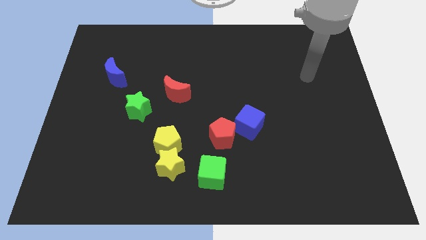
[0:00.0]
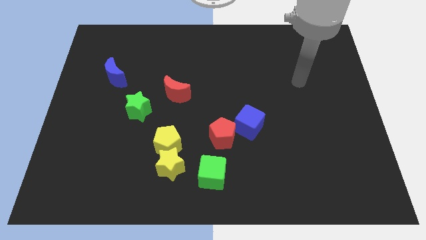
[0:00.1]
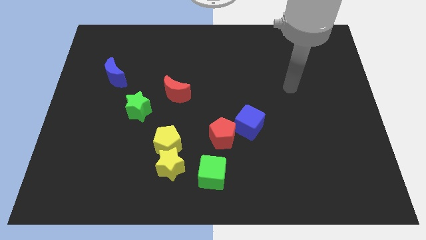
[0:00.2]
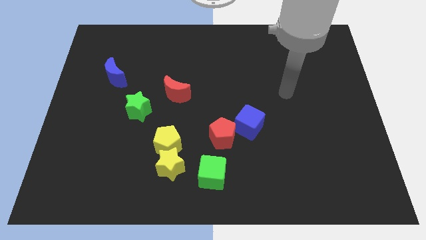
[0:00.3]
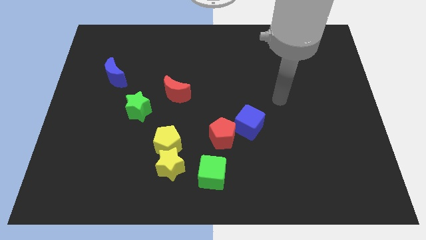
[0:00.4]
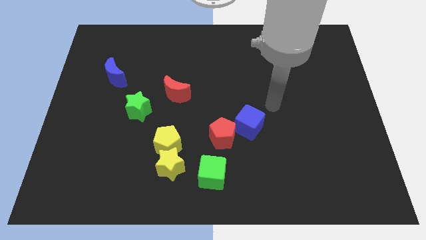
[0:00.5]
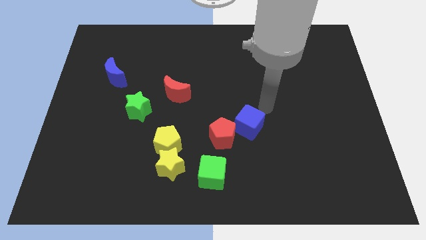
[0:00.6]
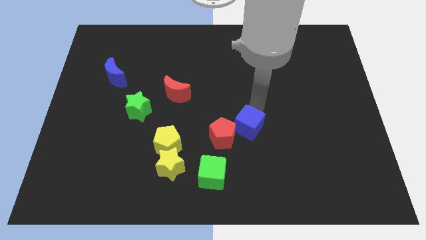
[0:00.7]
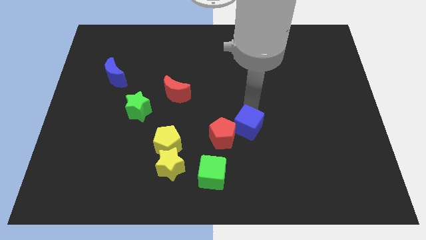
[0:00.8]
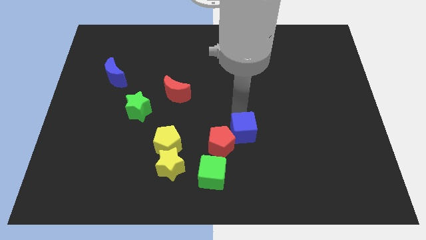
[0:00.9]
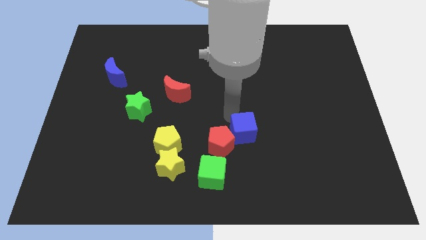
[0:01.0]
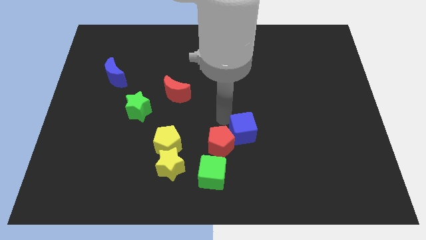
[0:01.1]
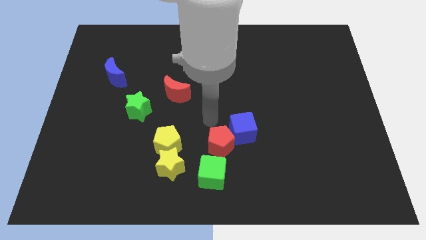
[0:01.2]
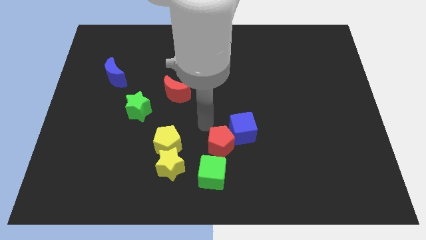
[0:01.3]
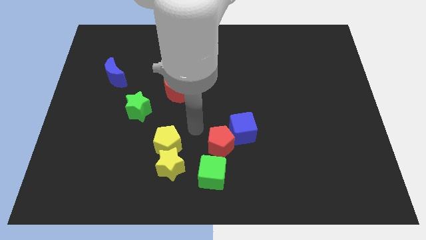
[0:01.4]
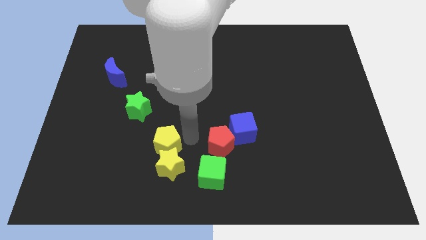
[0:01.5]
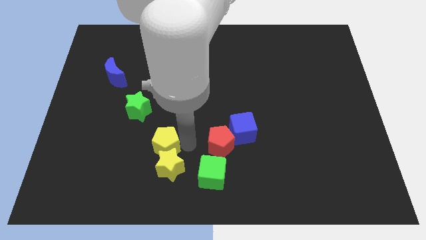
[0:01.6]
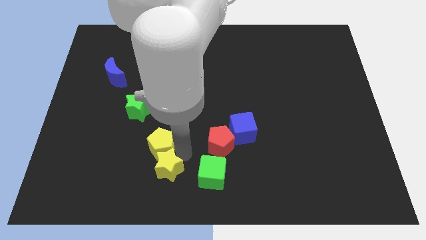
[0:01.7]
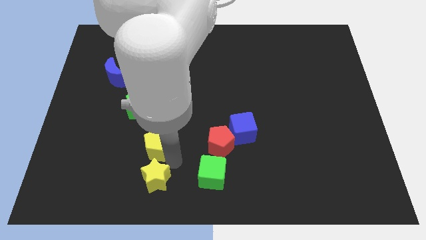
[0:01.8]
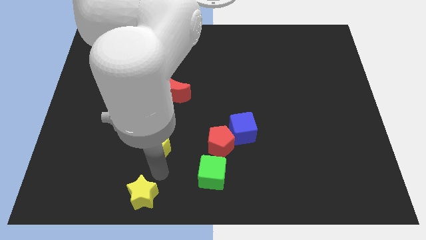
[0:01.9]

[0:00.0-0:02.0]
move the yellow pentagon away from the yellow star

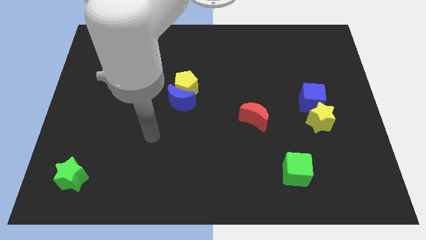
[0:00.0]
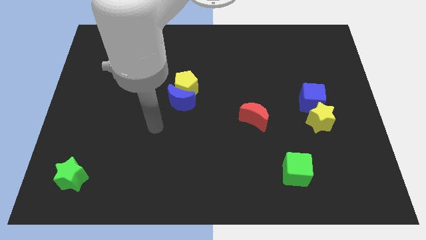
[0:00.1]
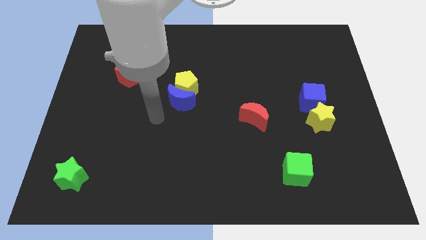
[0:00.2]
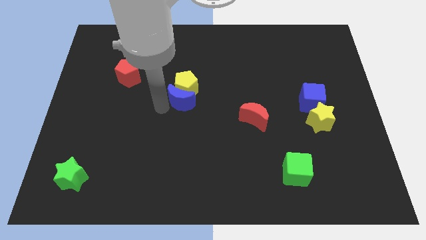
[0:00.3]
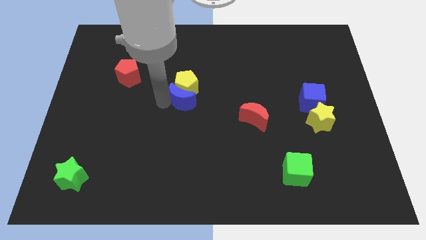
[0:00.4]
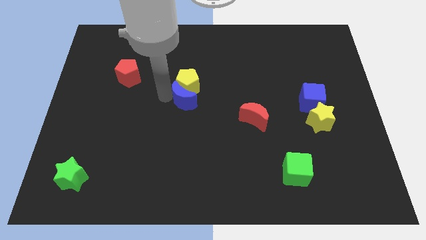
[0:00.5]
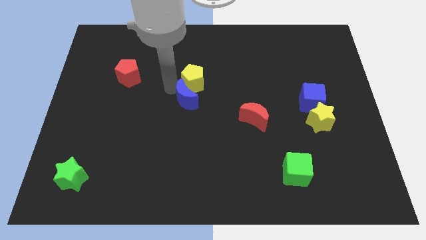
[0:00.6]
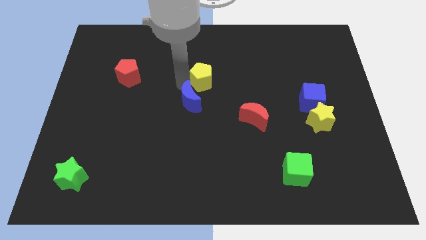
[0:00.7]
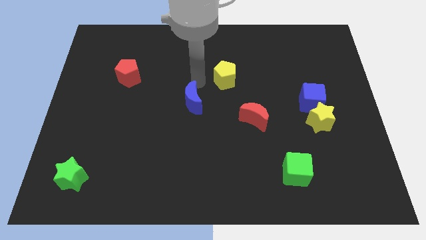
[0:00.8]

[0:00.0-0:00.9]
pull the blue moon apart from the yellow pentagon

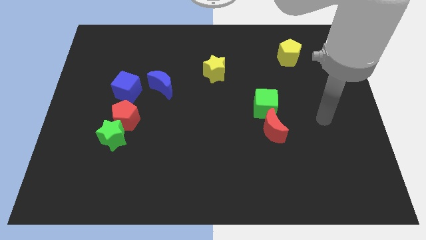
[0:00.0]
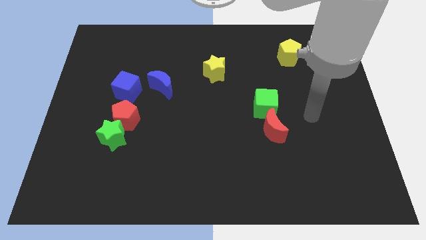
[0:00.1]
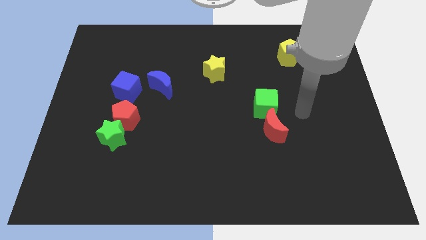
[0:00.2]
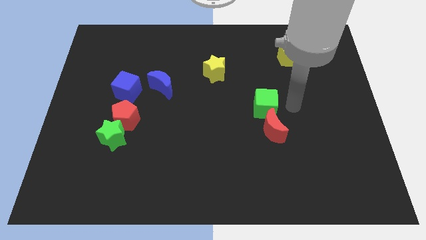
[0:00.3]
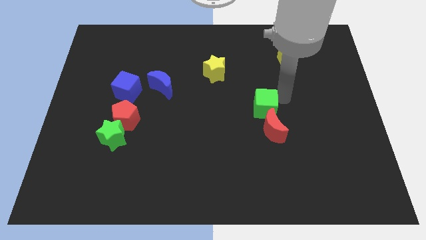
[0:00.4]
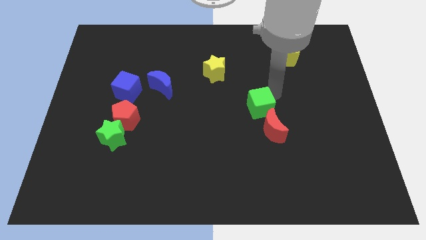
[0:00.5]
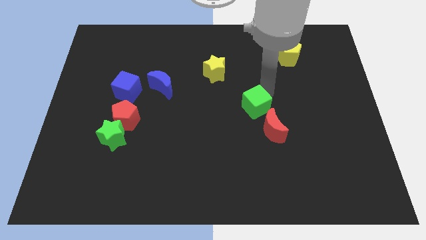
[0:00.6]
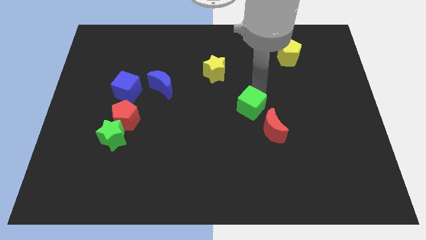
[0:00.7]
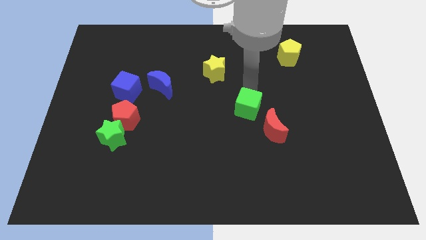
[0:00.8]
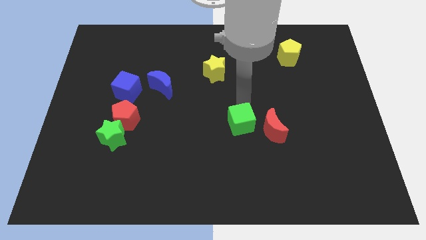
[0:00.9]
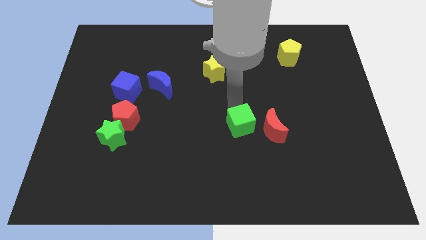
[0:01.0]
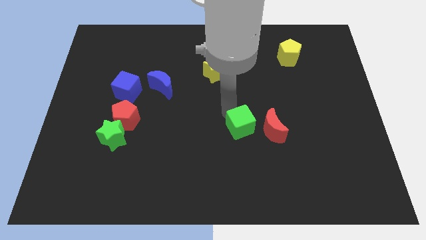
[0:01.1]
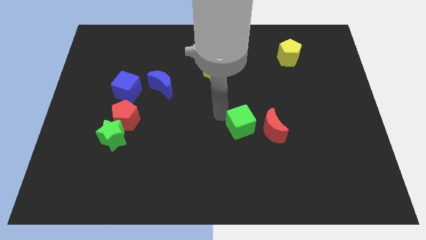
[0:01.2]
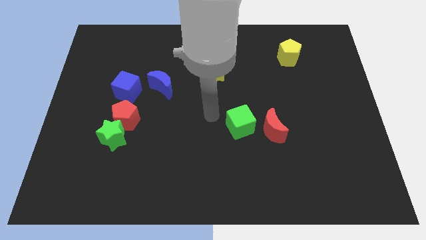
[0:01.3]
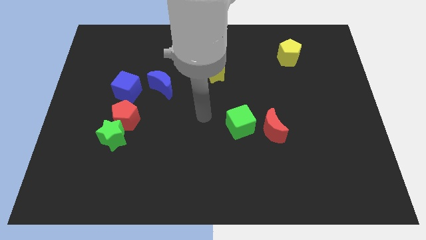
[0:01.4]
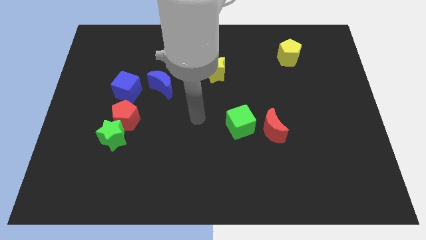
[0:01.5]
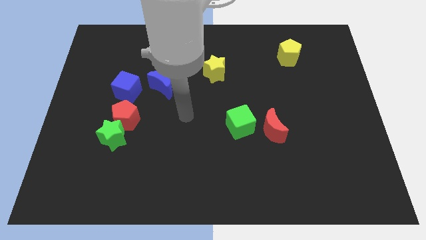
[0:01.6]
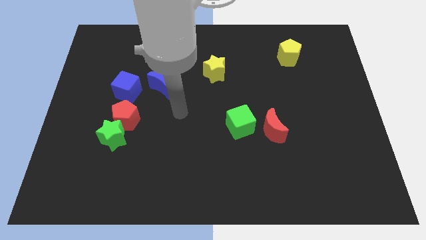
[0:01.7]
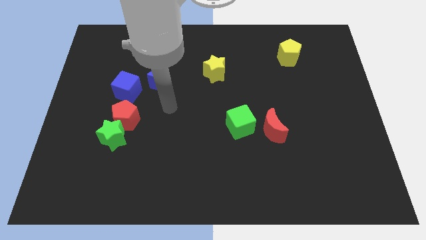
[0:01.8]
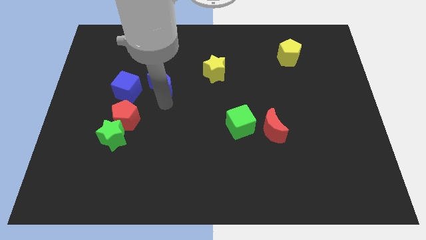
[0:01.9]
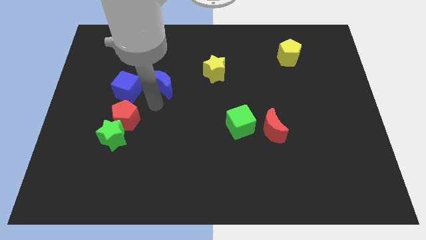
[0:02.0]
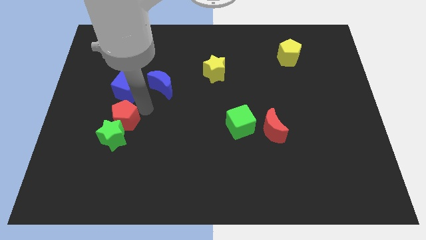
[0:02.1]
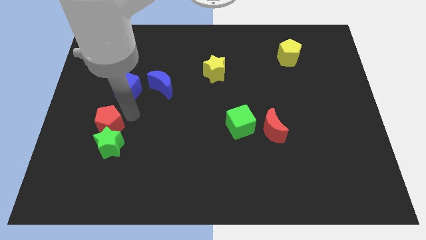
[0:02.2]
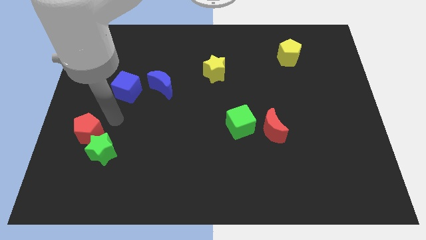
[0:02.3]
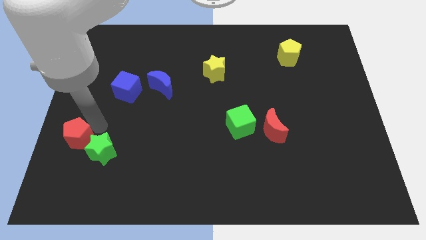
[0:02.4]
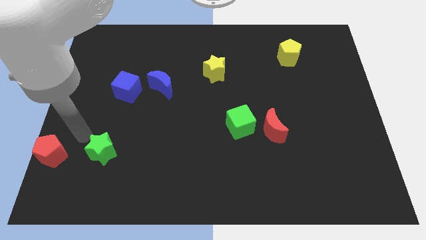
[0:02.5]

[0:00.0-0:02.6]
pull the green star apart from the red pentagon

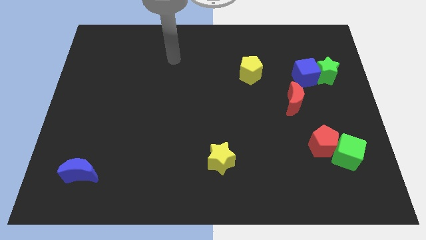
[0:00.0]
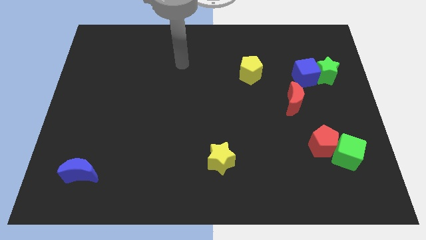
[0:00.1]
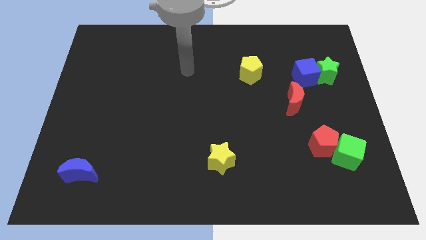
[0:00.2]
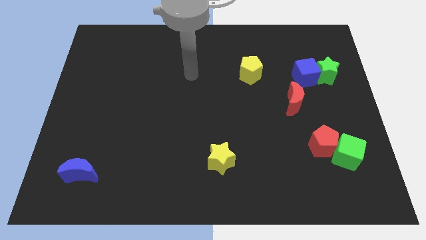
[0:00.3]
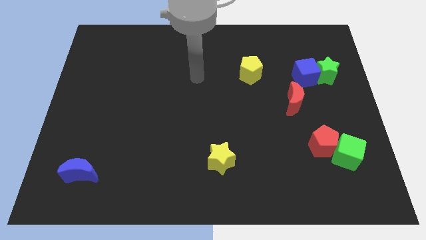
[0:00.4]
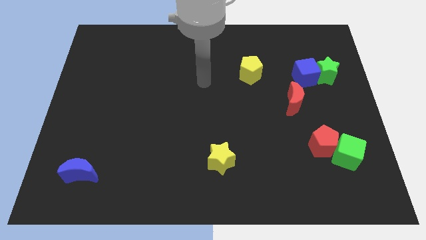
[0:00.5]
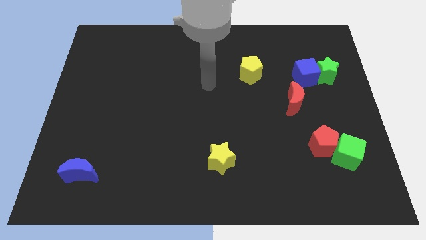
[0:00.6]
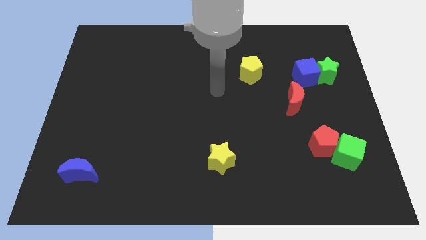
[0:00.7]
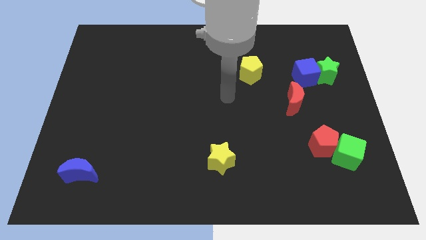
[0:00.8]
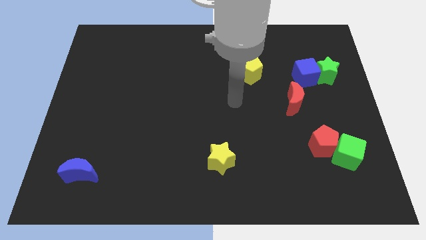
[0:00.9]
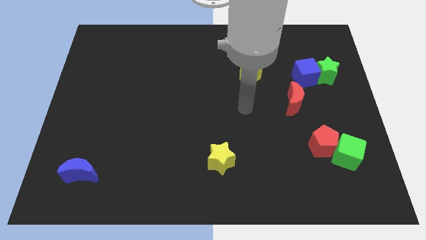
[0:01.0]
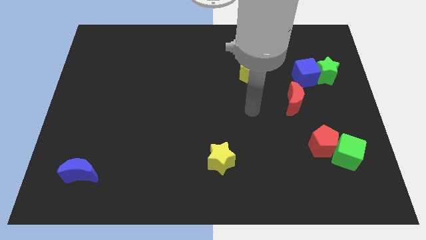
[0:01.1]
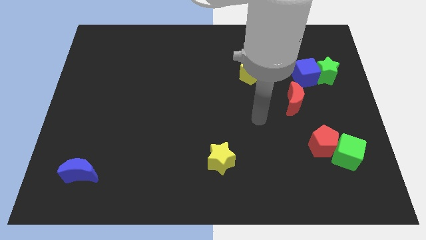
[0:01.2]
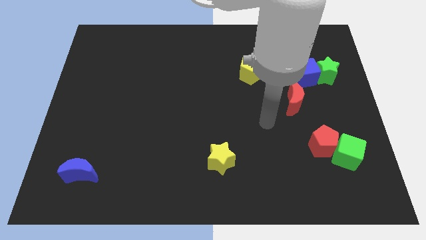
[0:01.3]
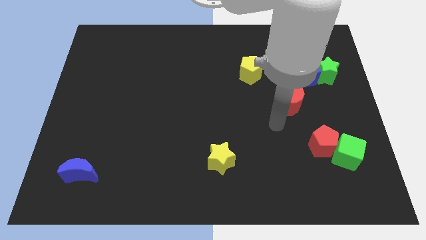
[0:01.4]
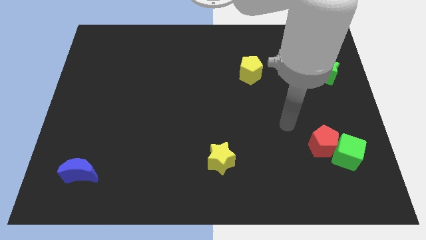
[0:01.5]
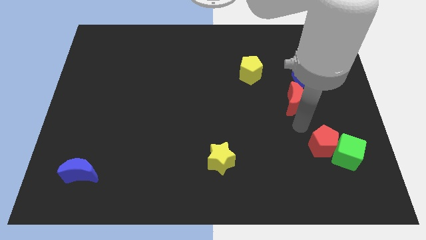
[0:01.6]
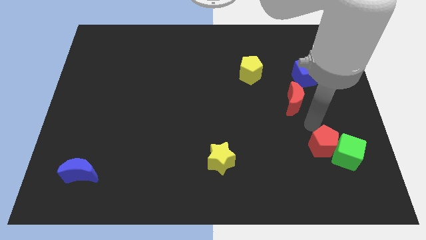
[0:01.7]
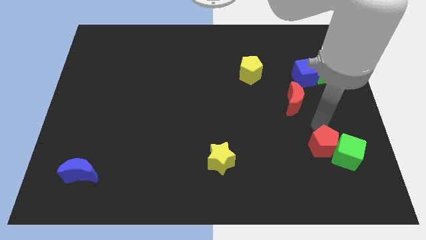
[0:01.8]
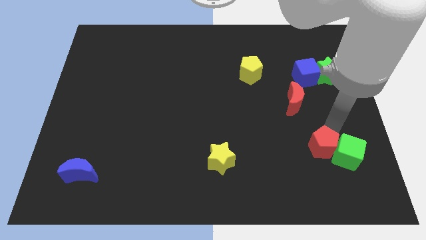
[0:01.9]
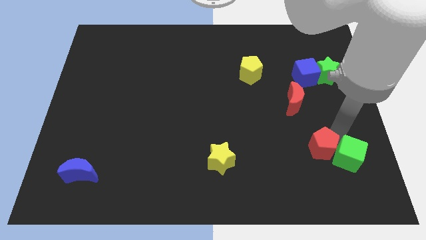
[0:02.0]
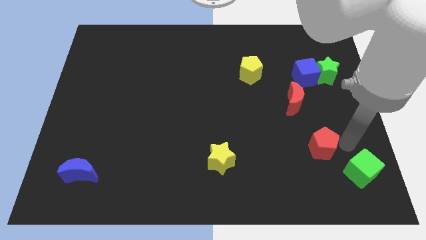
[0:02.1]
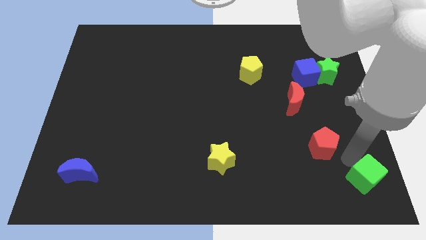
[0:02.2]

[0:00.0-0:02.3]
pull the red pentagon apart from the green cube

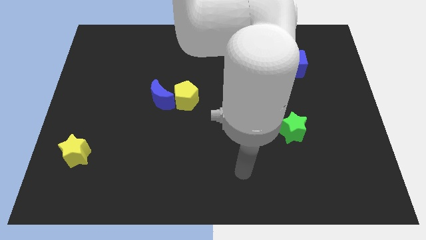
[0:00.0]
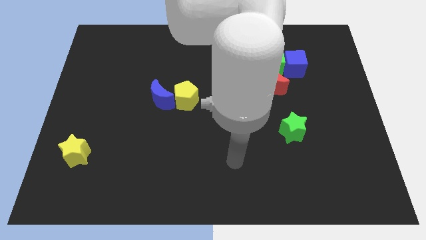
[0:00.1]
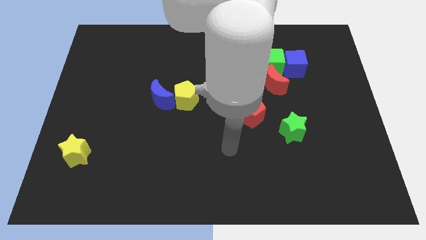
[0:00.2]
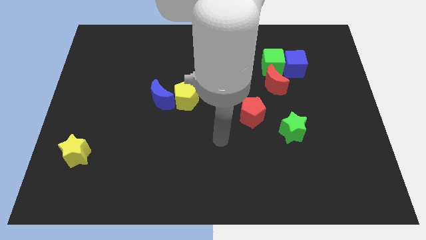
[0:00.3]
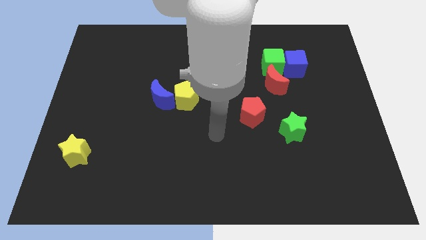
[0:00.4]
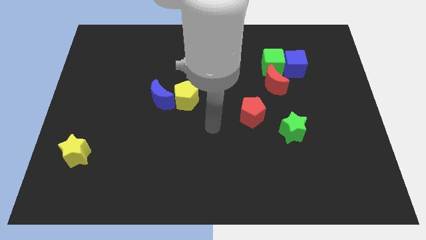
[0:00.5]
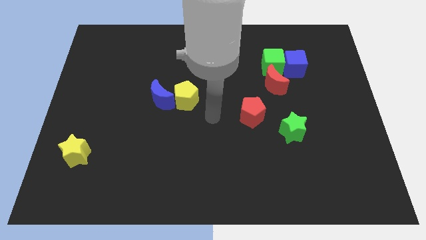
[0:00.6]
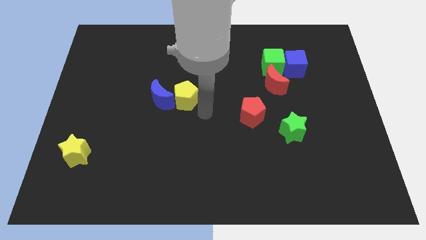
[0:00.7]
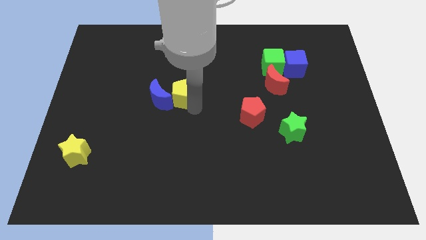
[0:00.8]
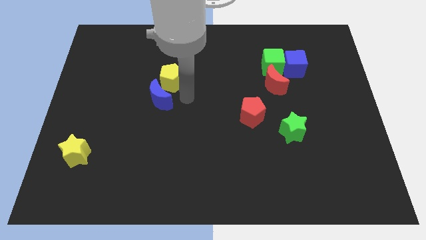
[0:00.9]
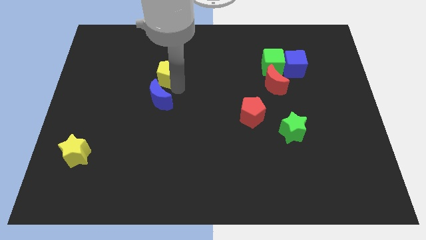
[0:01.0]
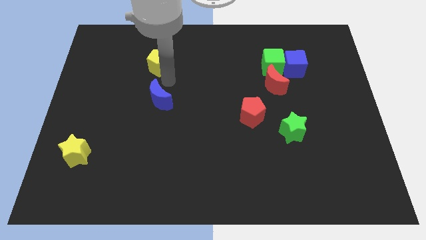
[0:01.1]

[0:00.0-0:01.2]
move the blue moon away from the yellow pentagon

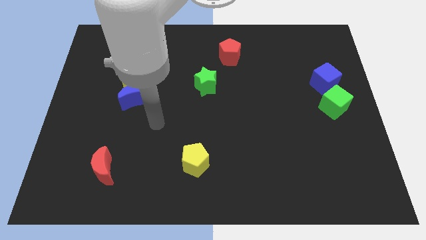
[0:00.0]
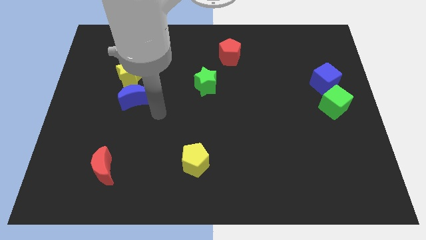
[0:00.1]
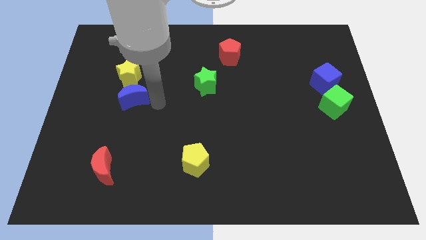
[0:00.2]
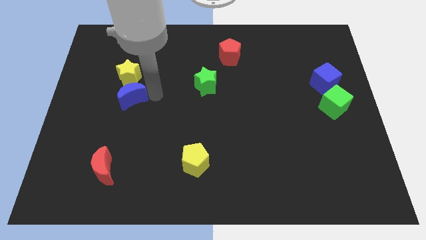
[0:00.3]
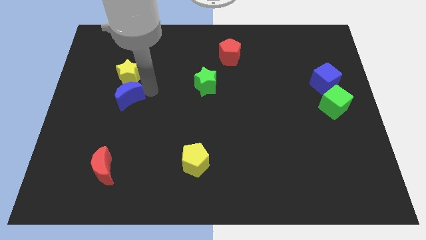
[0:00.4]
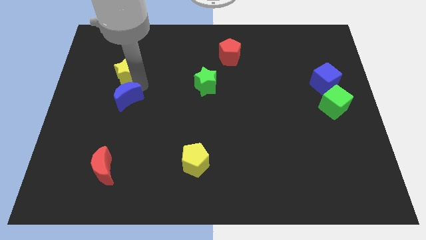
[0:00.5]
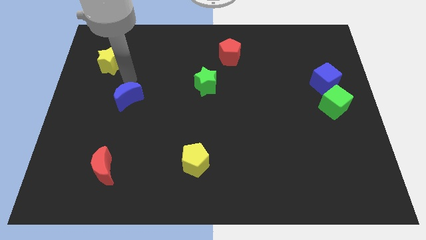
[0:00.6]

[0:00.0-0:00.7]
pull the blue moon apart from the yellow star
